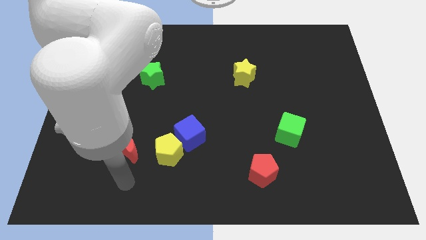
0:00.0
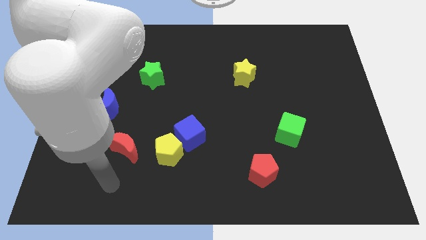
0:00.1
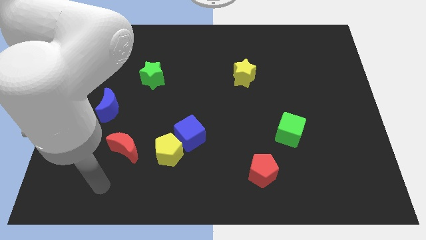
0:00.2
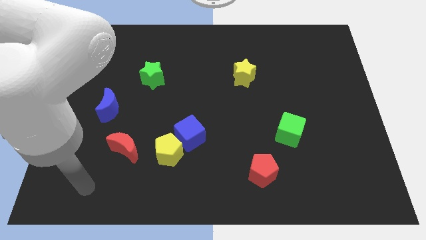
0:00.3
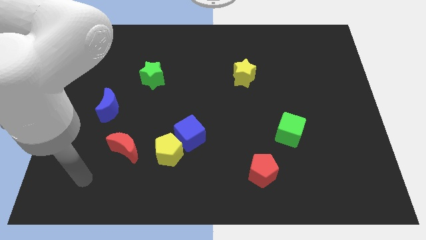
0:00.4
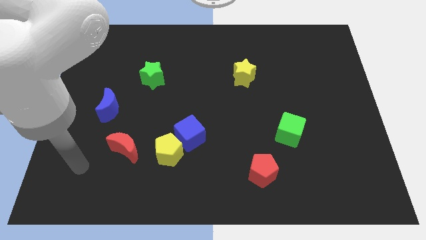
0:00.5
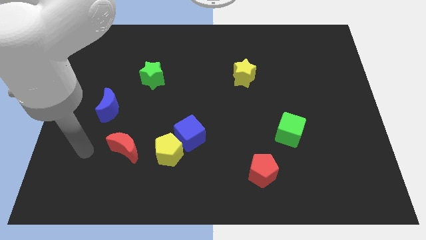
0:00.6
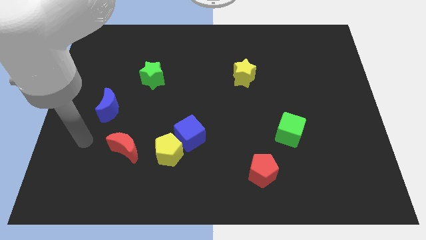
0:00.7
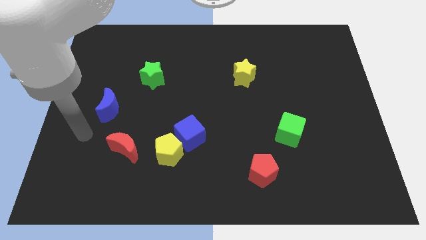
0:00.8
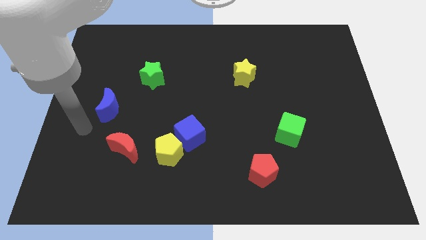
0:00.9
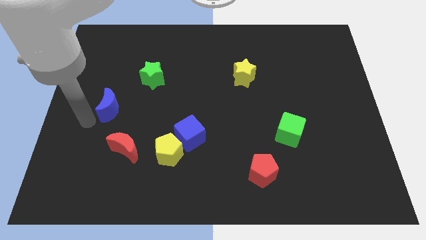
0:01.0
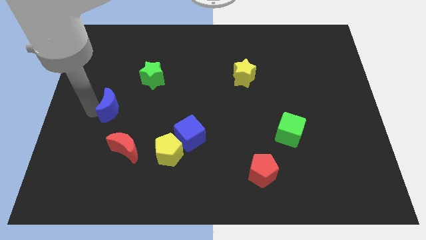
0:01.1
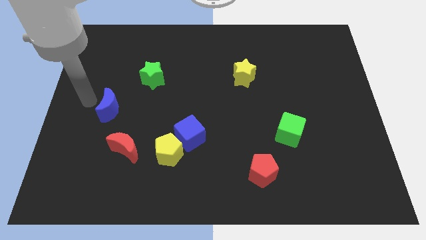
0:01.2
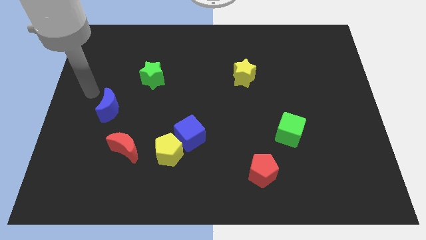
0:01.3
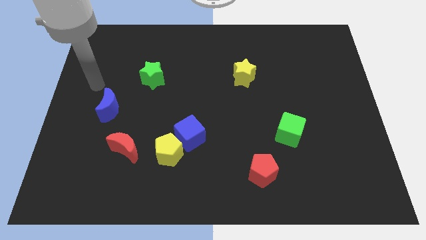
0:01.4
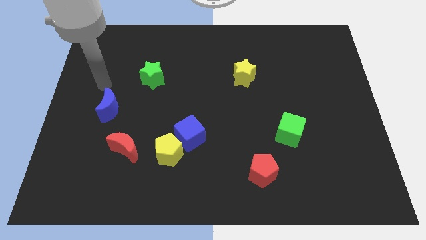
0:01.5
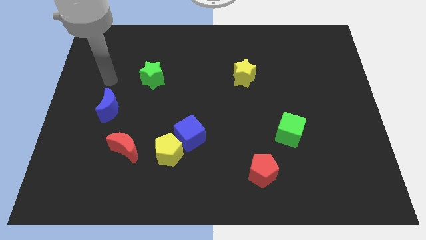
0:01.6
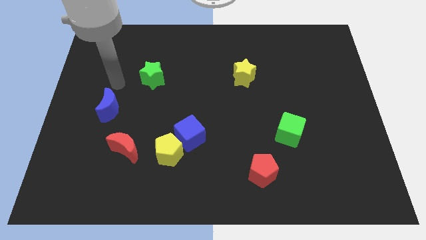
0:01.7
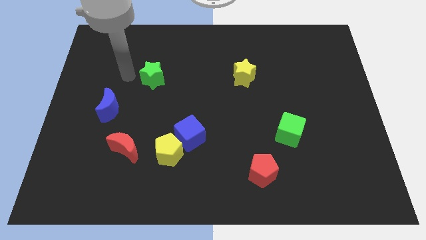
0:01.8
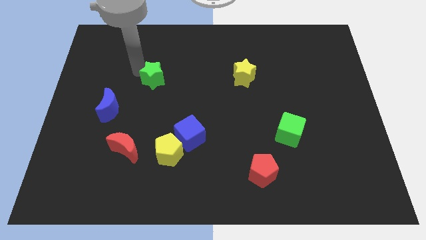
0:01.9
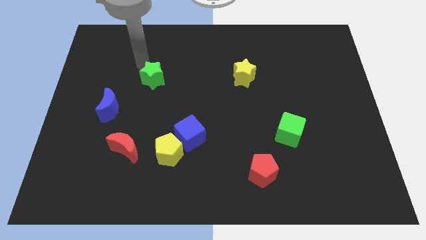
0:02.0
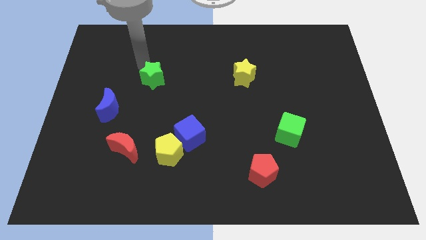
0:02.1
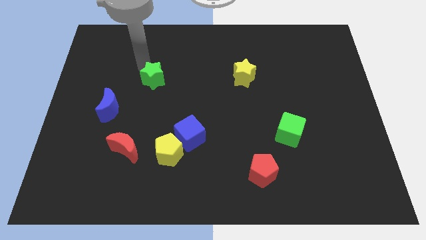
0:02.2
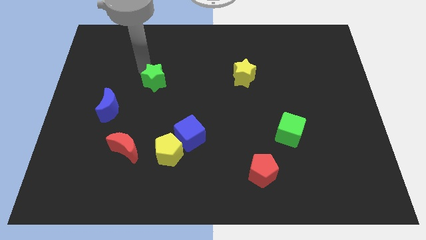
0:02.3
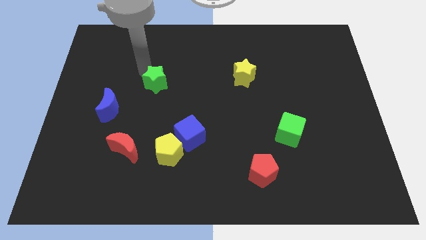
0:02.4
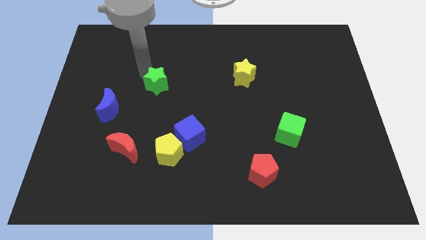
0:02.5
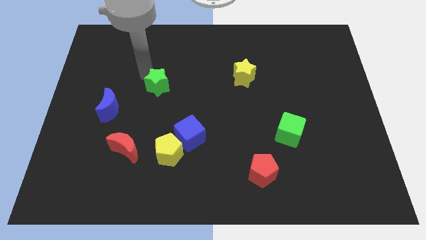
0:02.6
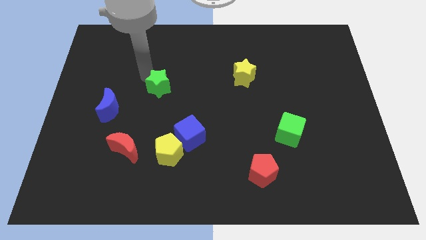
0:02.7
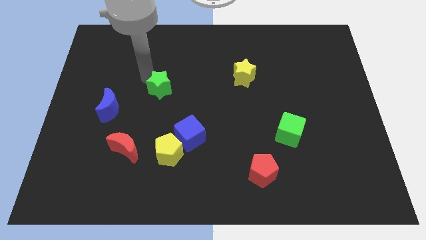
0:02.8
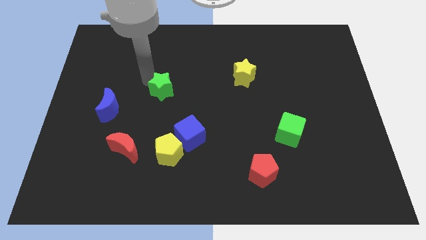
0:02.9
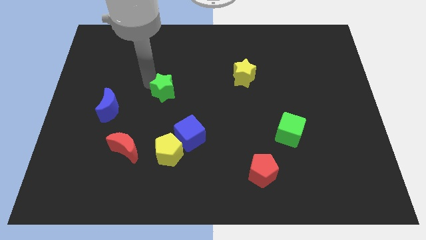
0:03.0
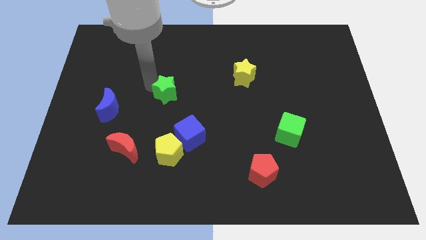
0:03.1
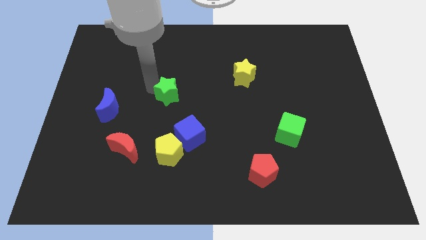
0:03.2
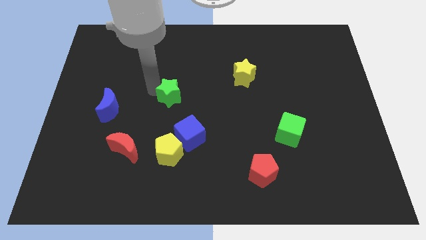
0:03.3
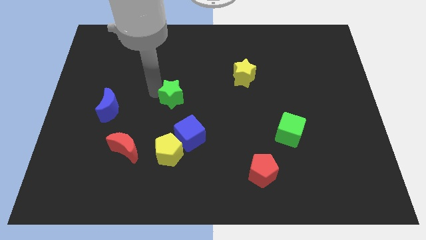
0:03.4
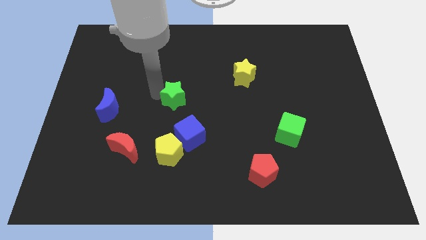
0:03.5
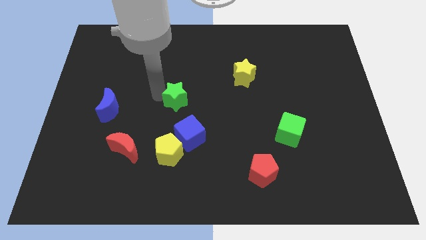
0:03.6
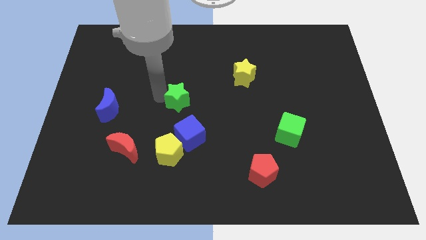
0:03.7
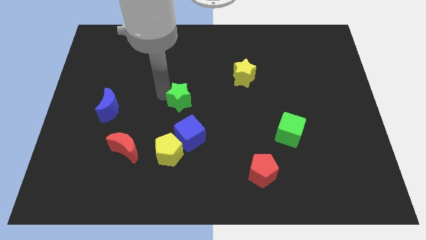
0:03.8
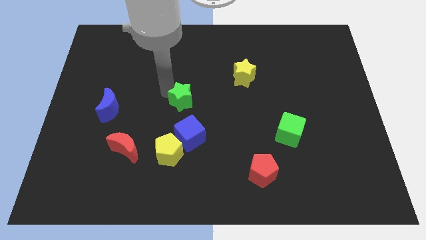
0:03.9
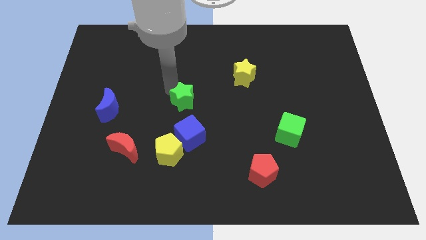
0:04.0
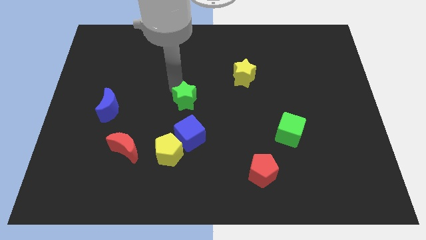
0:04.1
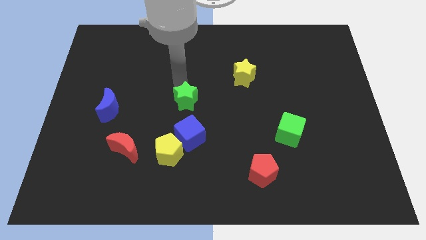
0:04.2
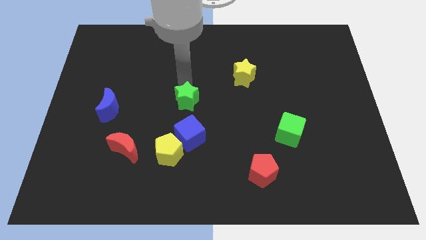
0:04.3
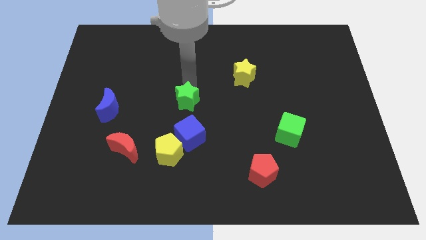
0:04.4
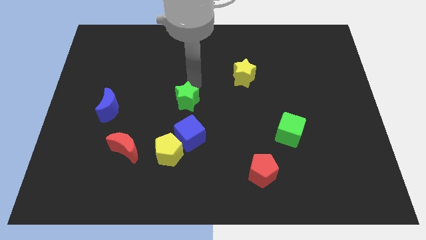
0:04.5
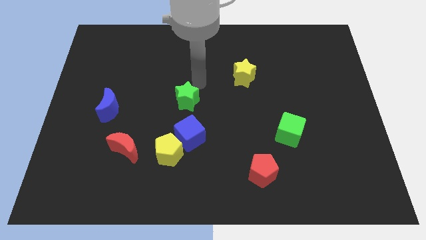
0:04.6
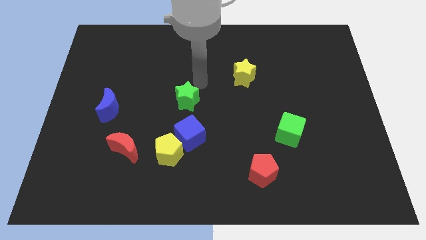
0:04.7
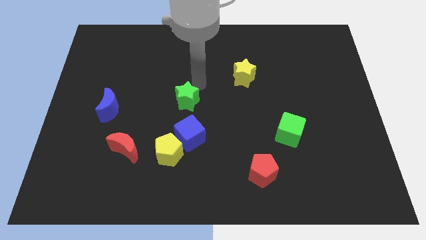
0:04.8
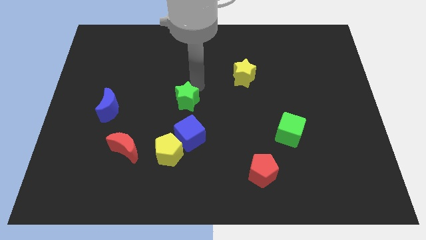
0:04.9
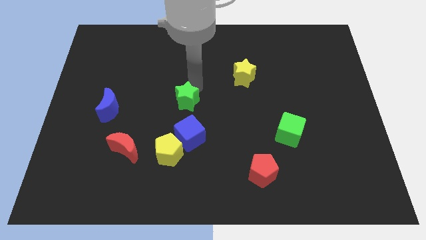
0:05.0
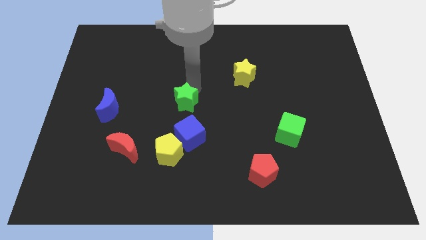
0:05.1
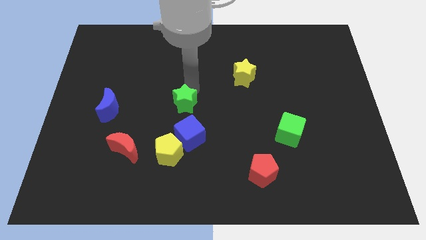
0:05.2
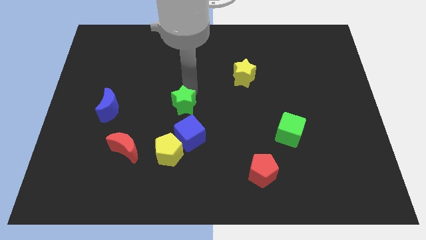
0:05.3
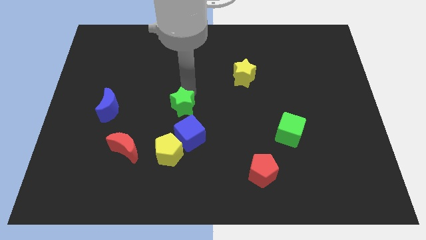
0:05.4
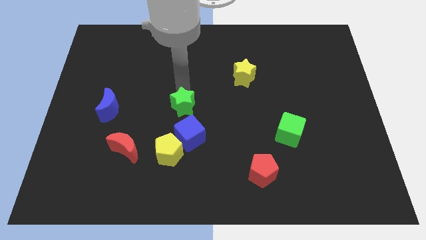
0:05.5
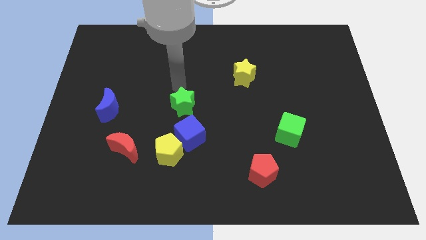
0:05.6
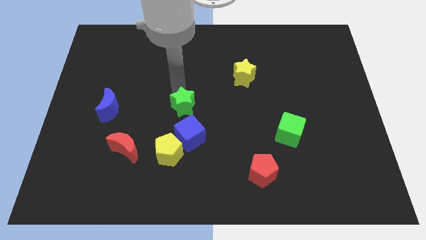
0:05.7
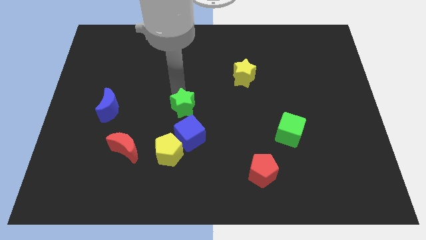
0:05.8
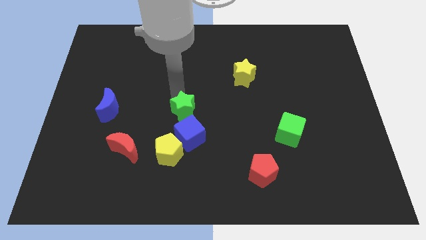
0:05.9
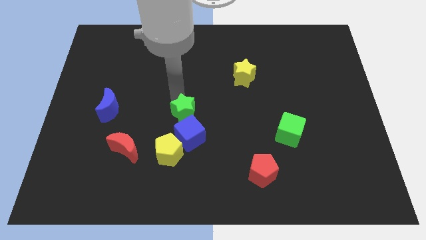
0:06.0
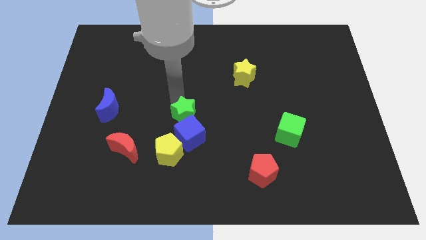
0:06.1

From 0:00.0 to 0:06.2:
put the green star close to the blue cube

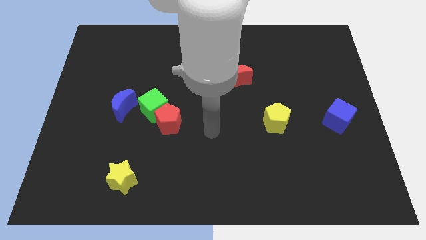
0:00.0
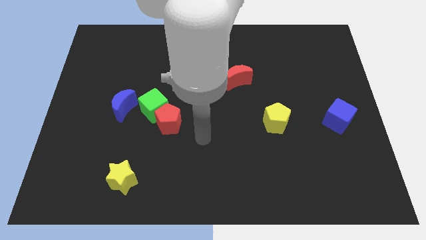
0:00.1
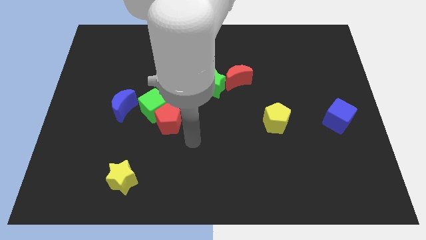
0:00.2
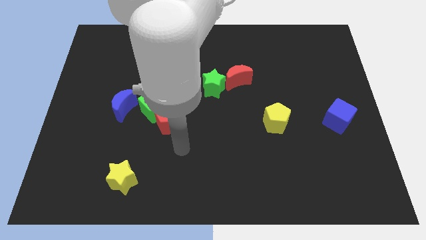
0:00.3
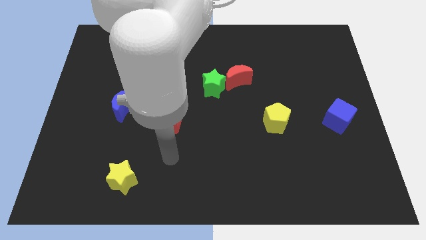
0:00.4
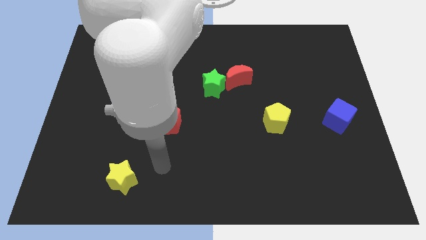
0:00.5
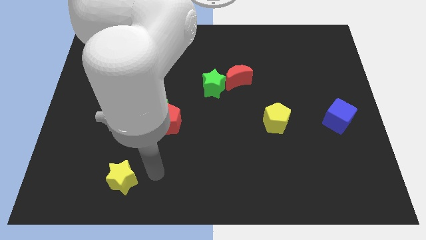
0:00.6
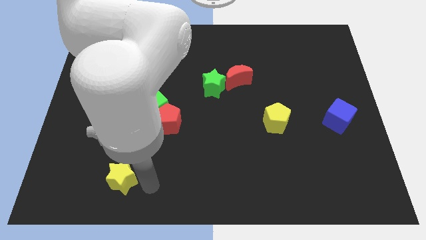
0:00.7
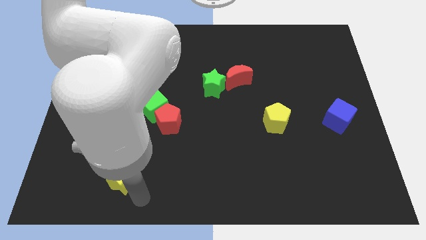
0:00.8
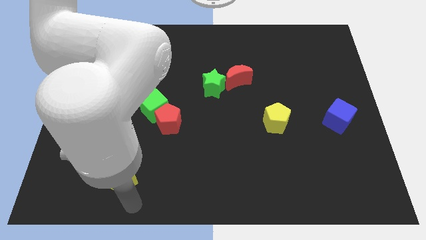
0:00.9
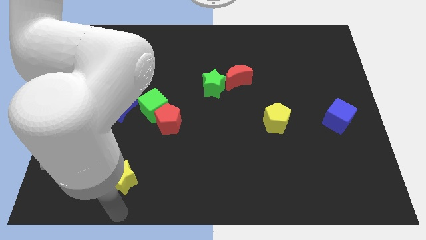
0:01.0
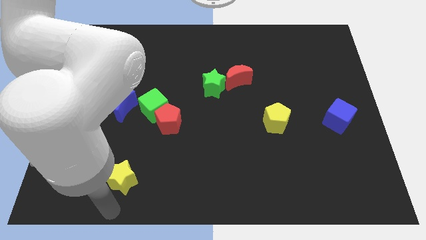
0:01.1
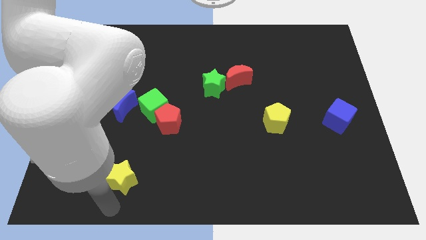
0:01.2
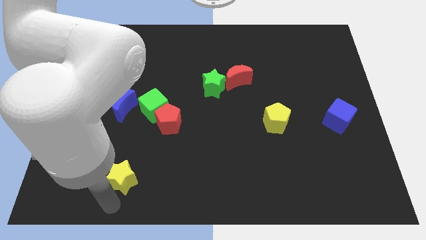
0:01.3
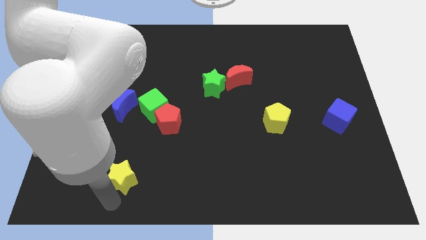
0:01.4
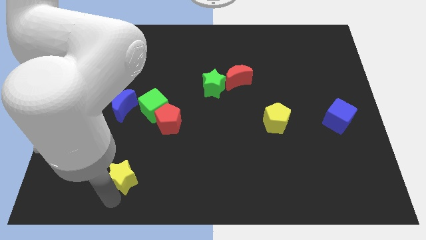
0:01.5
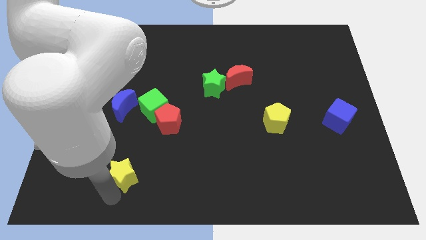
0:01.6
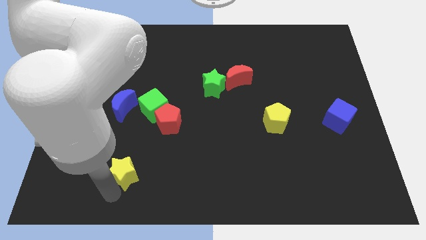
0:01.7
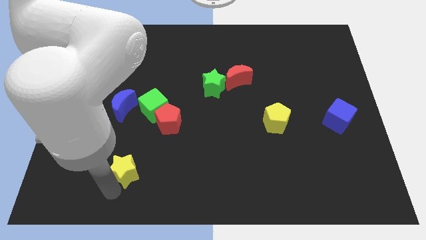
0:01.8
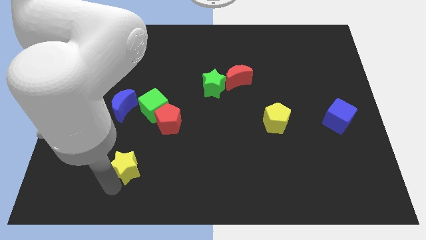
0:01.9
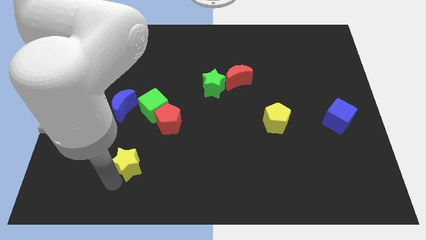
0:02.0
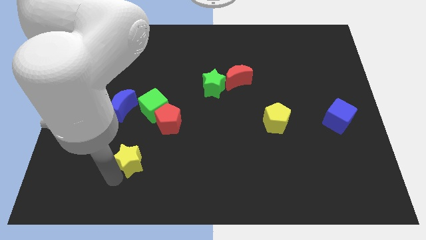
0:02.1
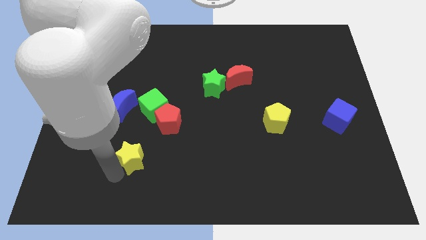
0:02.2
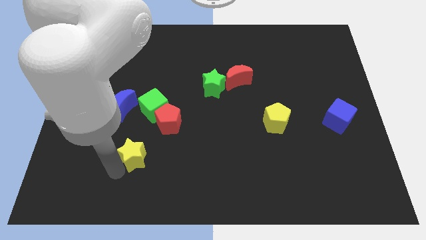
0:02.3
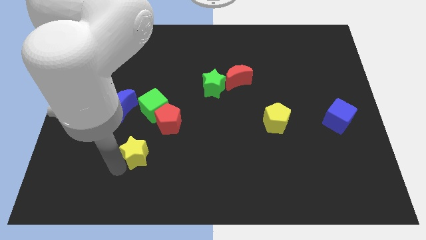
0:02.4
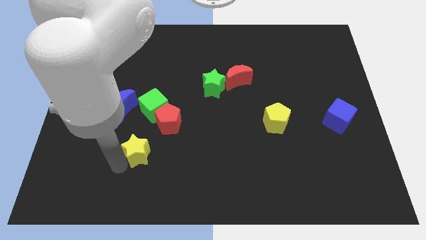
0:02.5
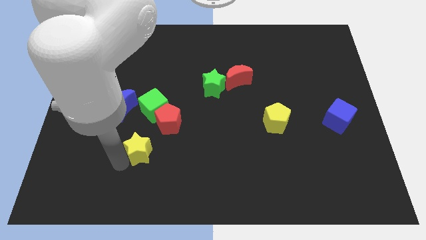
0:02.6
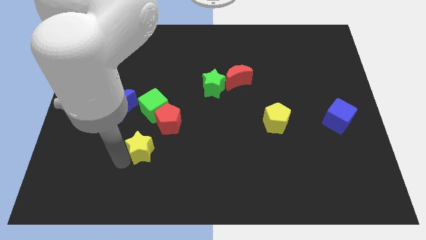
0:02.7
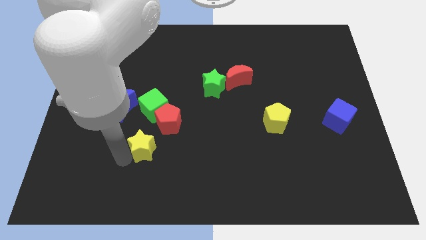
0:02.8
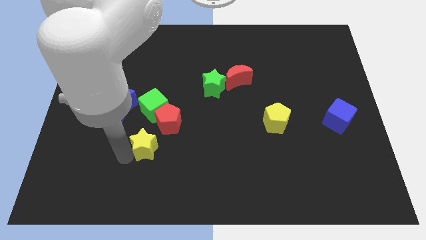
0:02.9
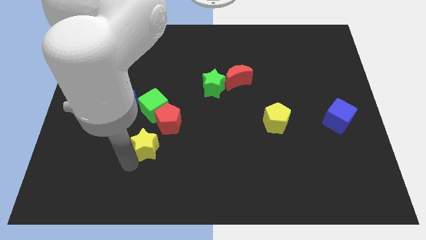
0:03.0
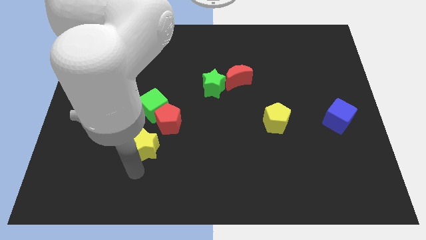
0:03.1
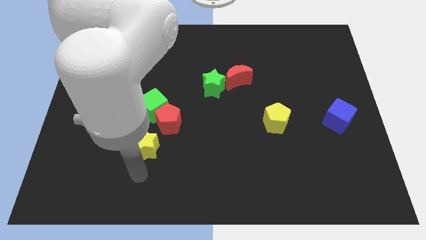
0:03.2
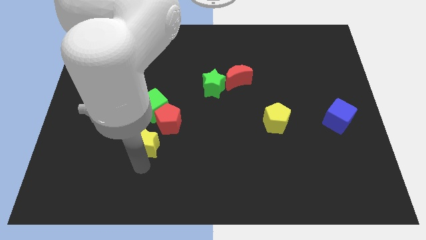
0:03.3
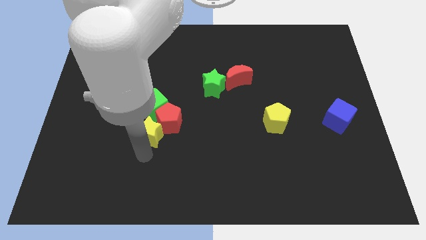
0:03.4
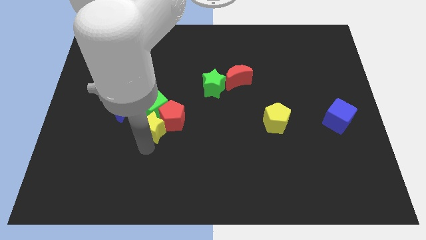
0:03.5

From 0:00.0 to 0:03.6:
put the yellow star towards the green cube
